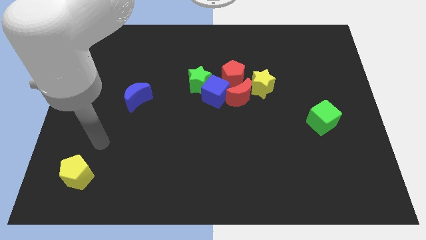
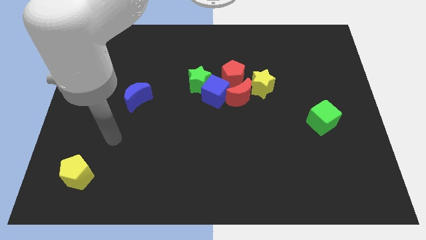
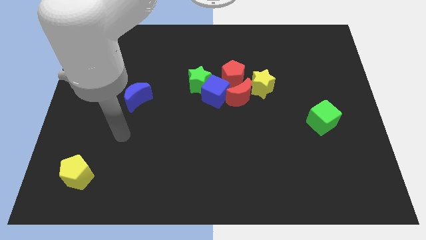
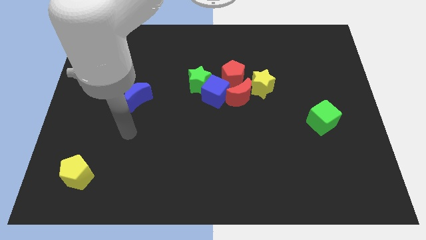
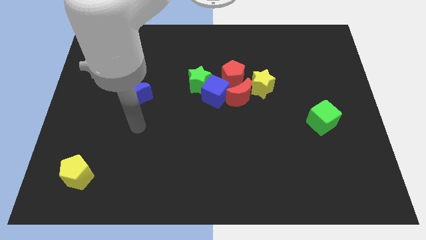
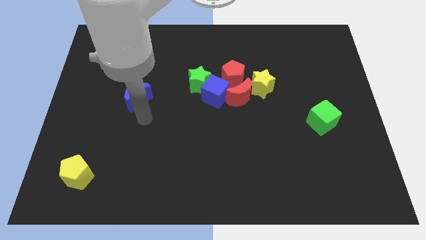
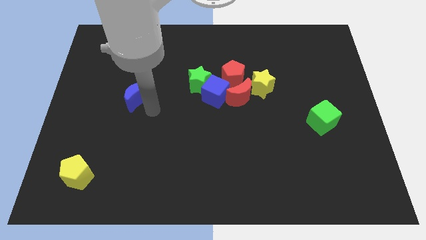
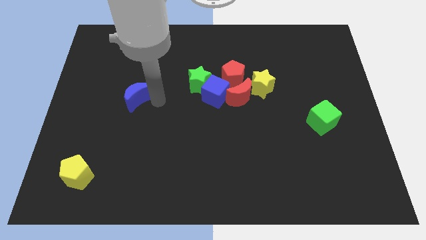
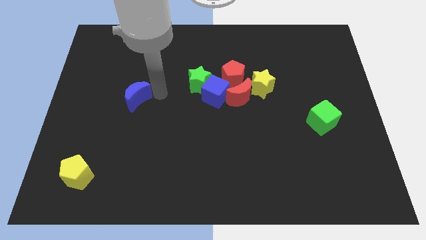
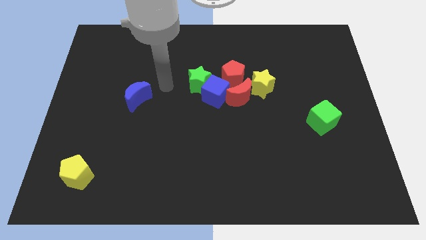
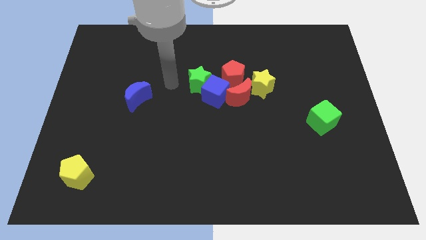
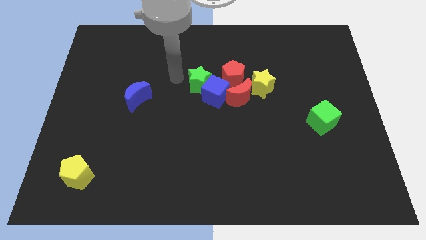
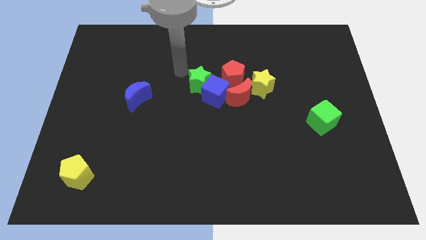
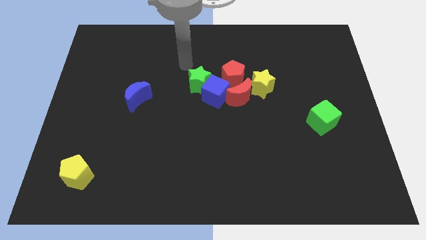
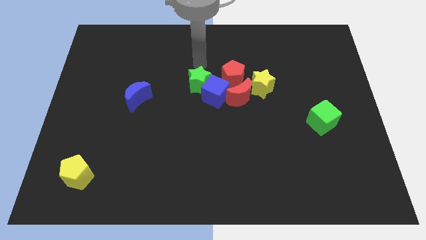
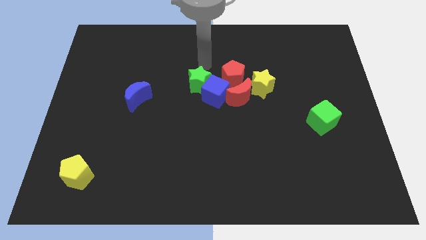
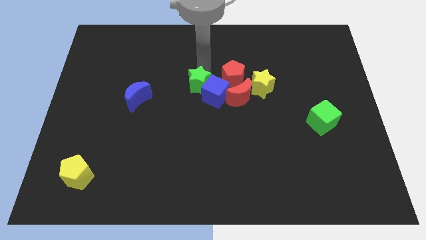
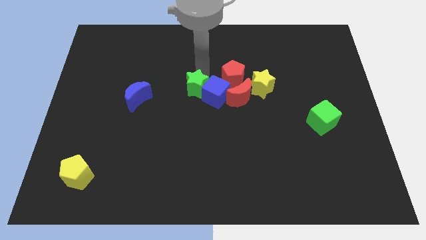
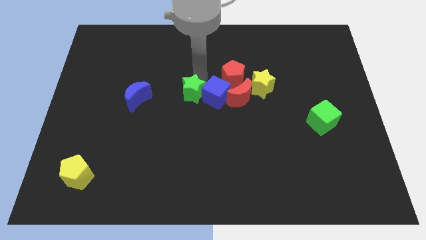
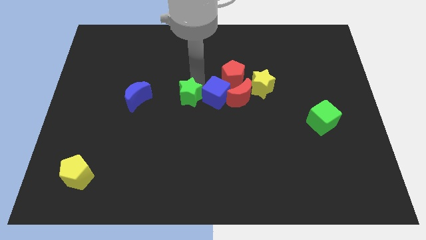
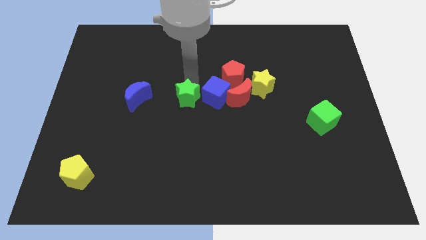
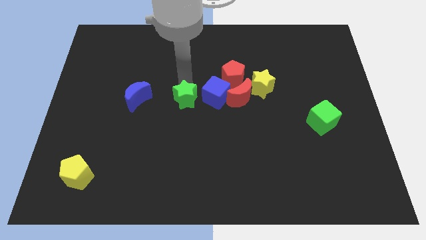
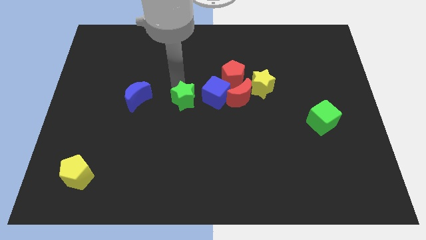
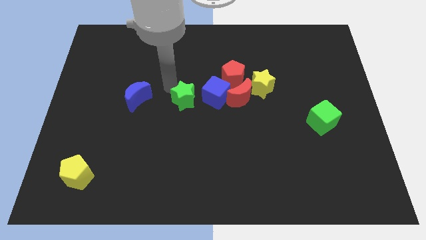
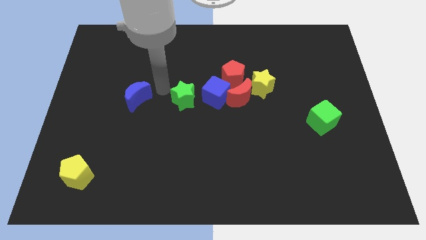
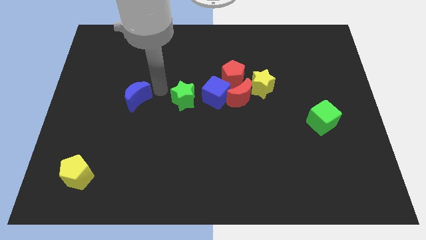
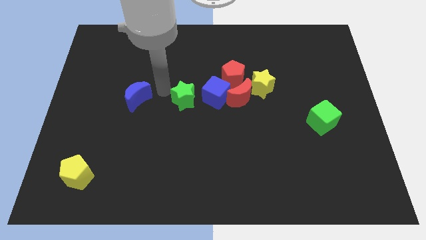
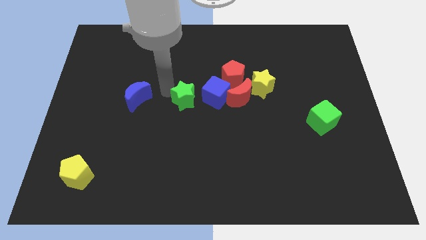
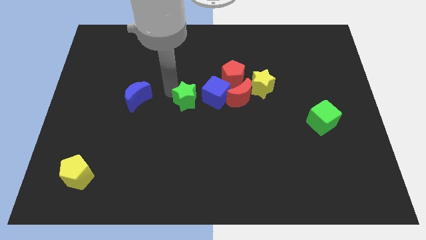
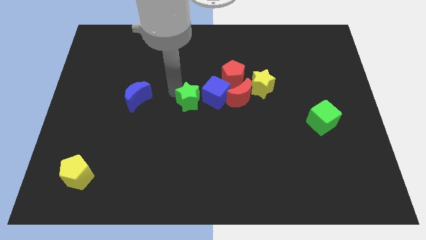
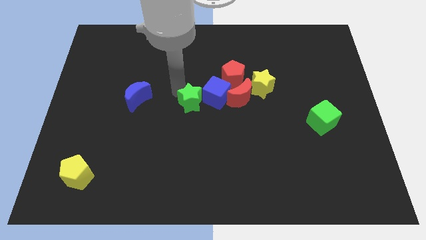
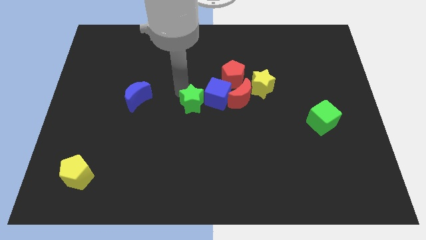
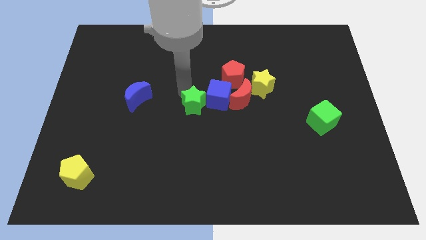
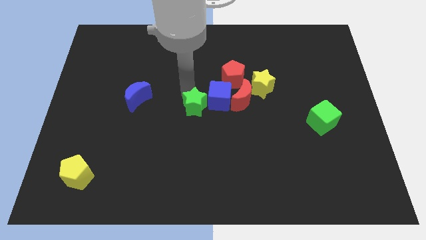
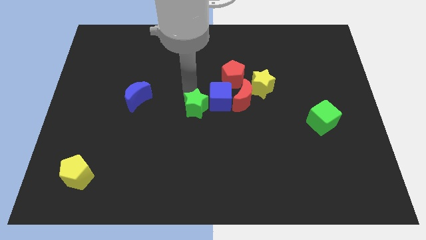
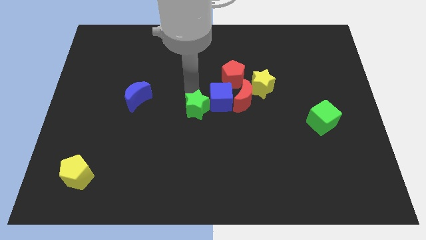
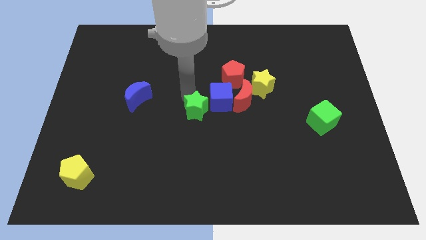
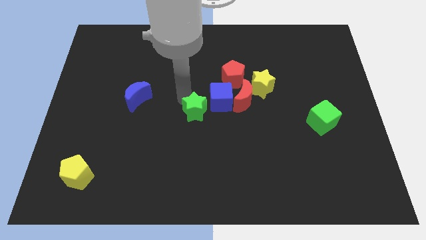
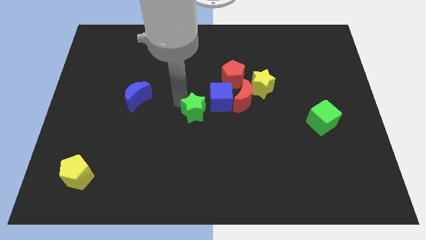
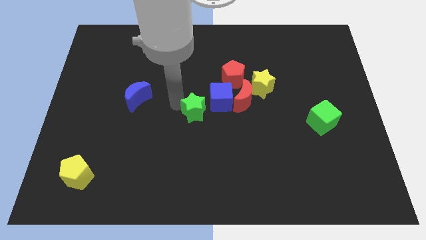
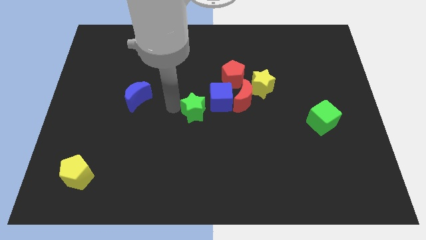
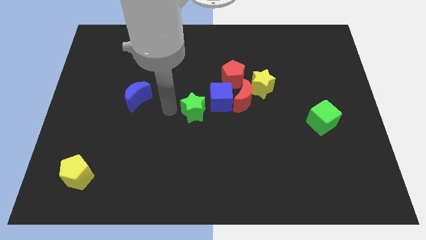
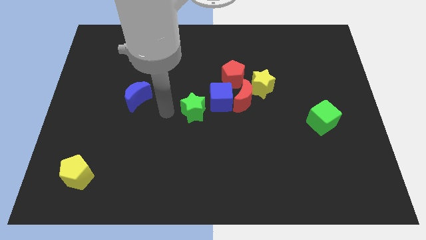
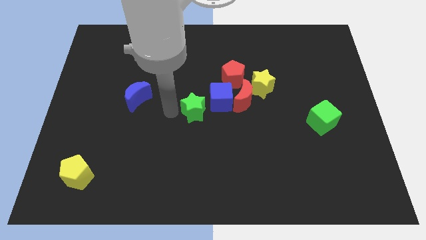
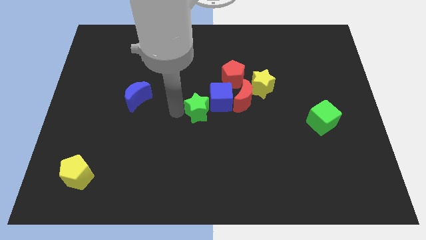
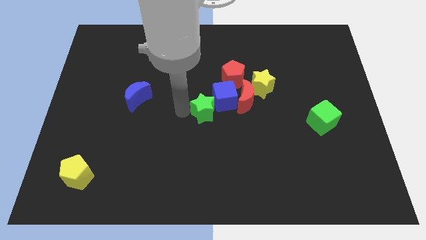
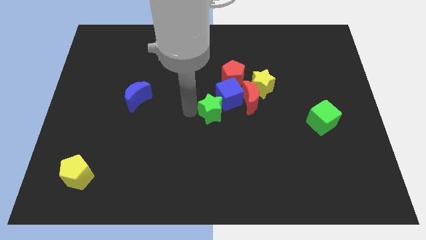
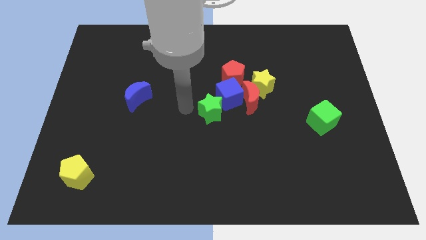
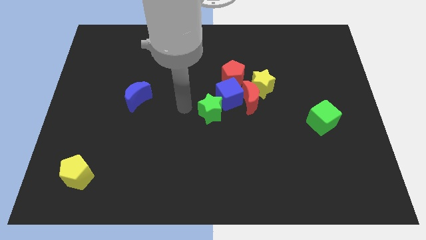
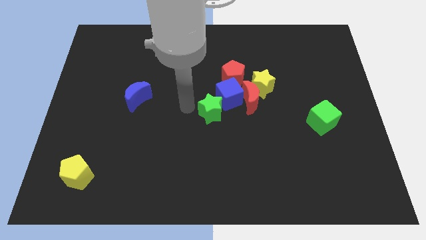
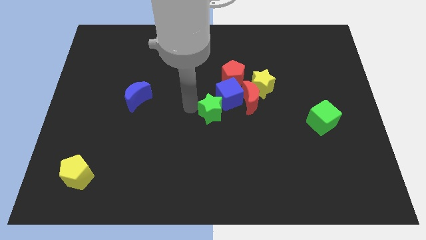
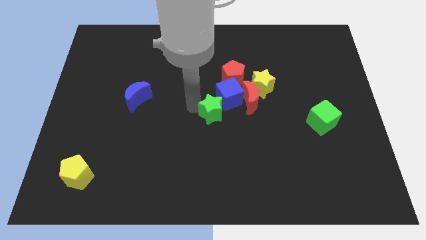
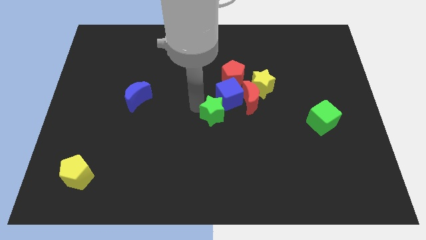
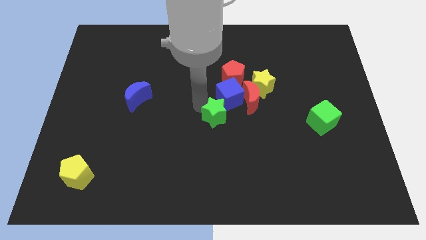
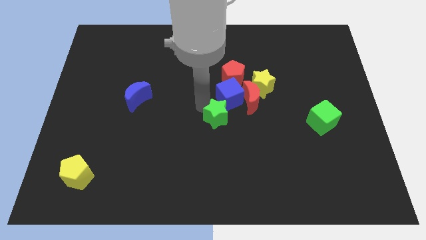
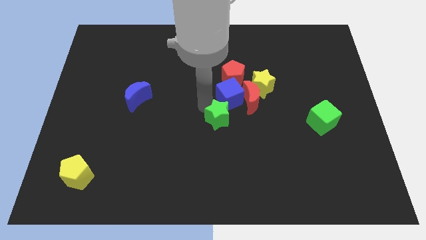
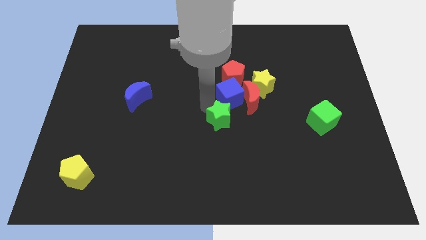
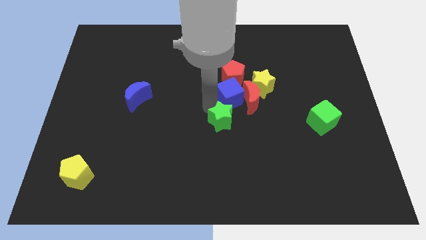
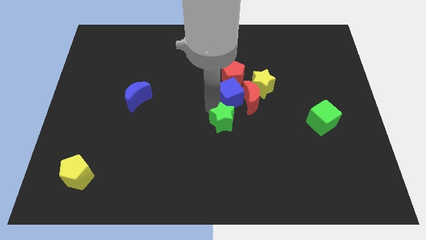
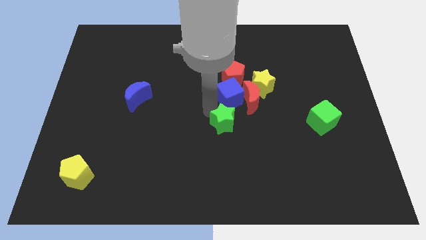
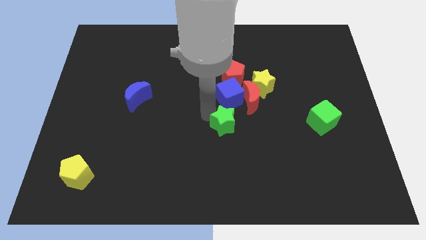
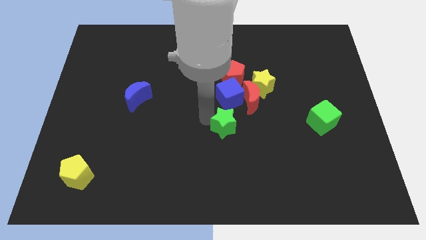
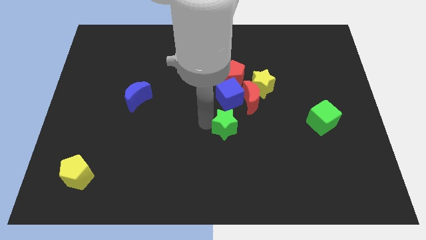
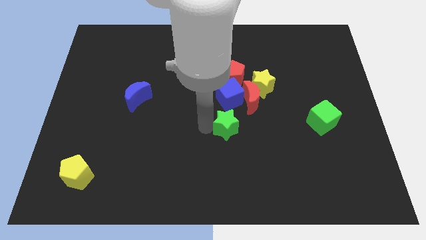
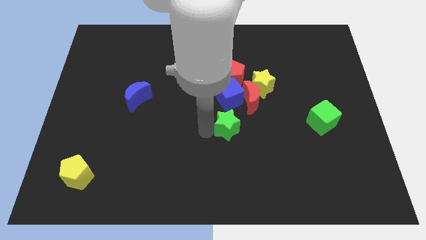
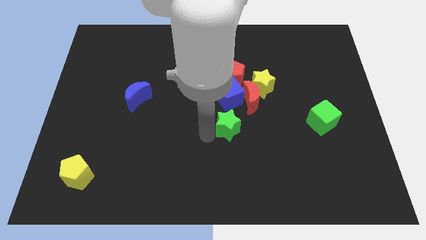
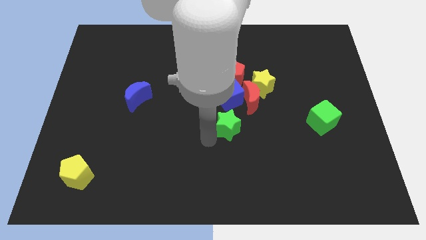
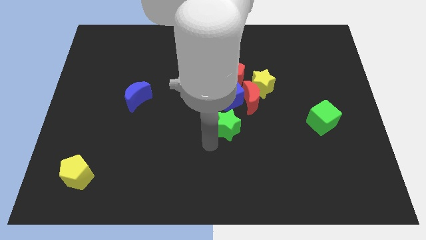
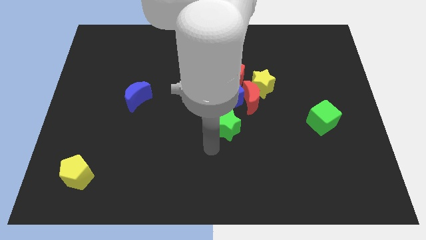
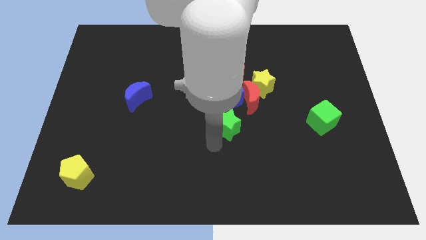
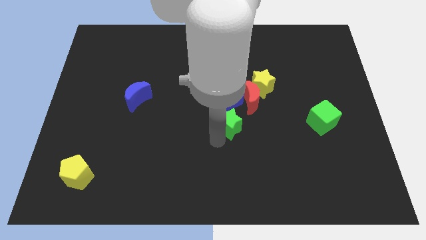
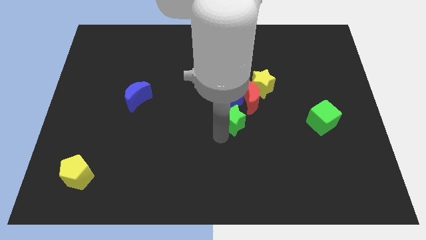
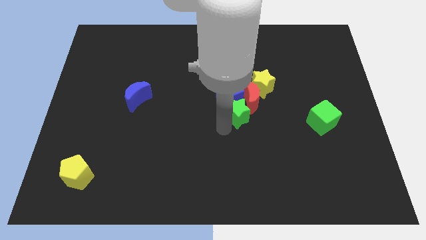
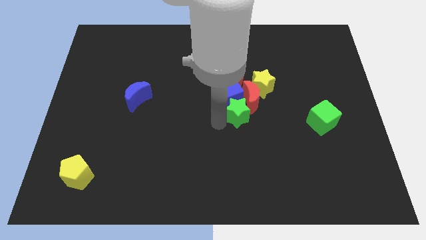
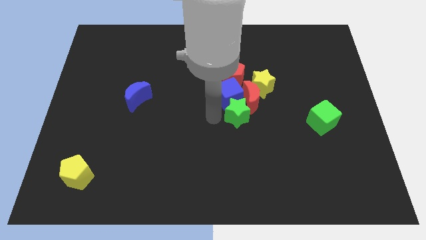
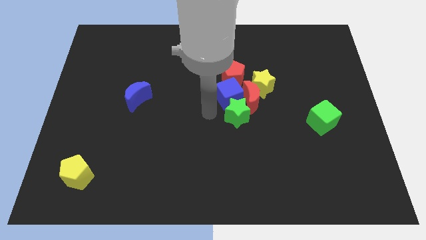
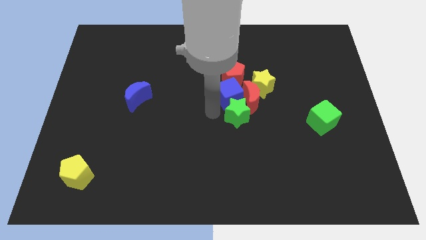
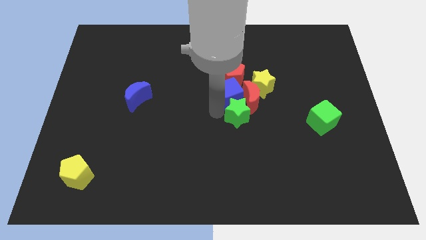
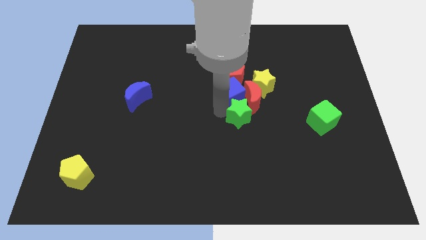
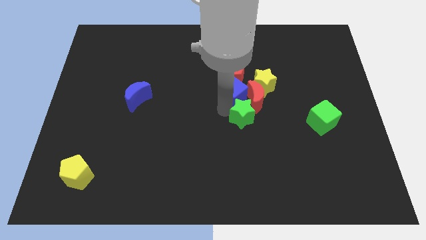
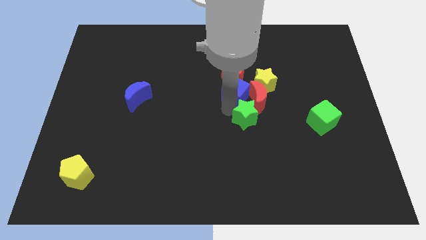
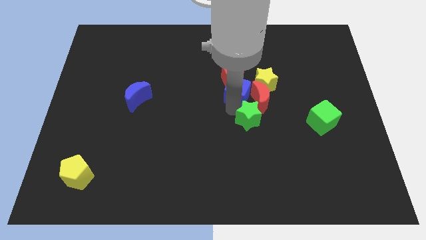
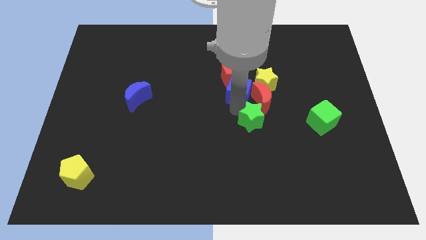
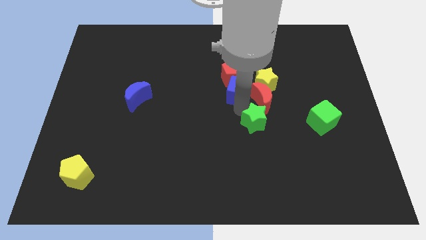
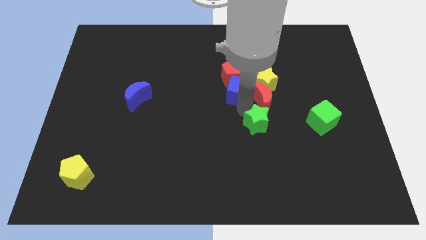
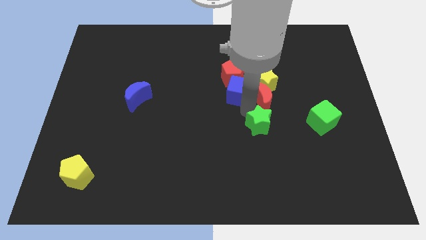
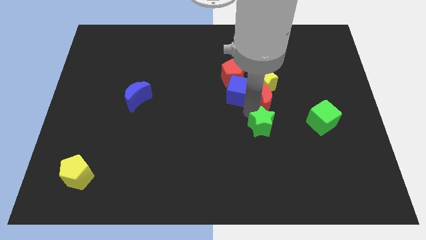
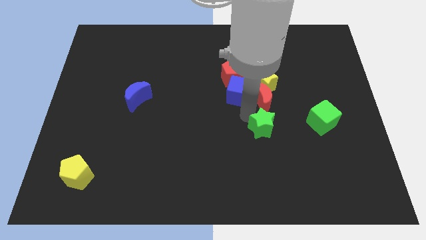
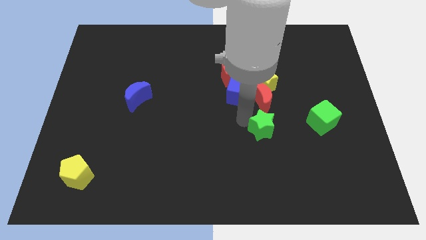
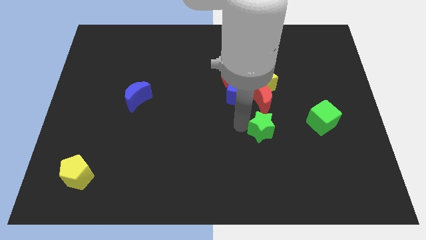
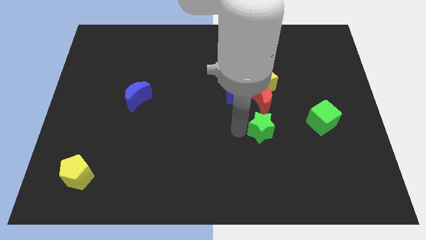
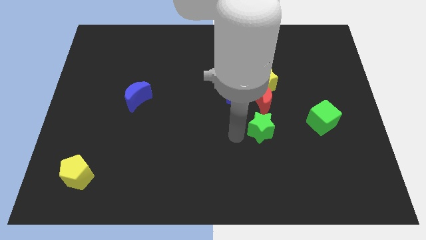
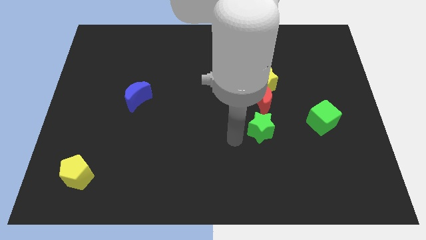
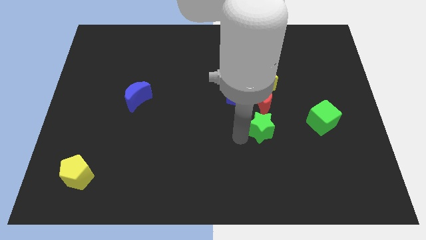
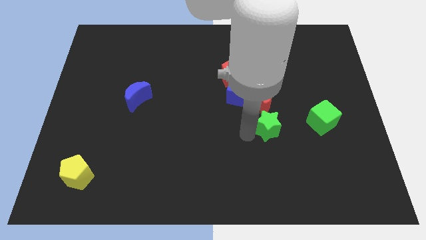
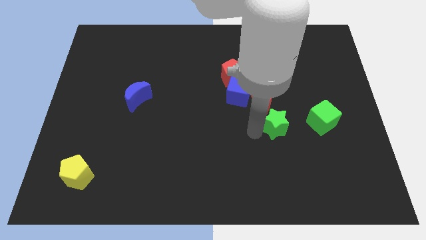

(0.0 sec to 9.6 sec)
slide the green star diagonally down and to the right of the red moon
